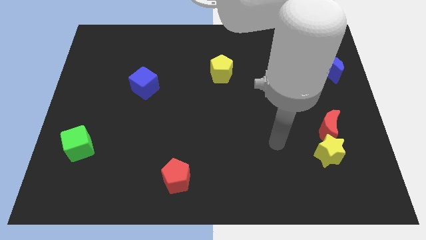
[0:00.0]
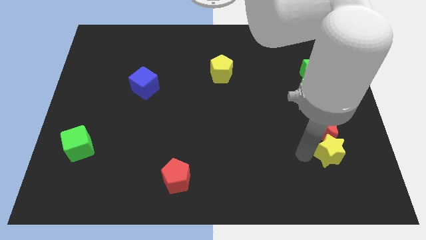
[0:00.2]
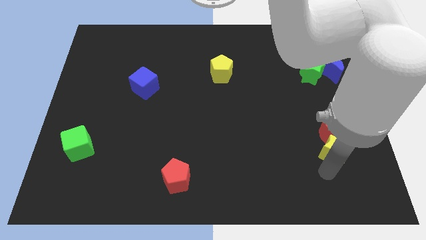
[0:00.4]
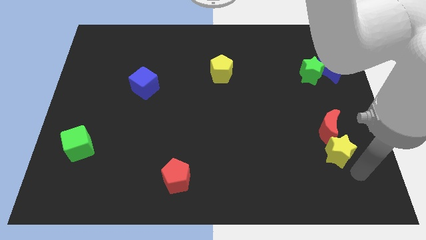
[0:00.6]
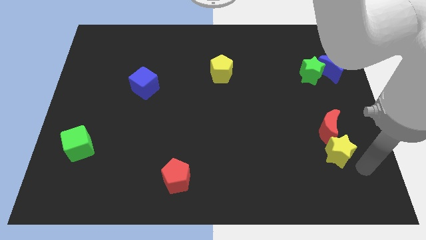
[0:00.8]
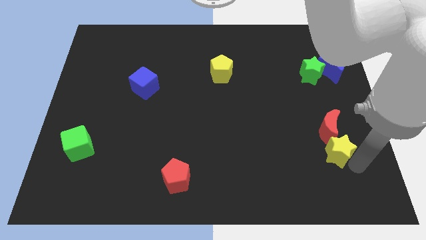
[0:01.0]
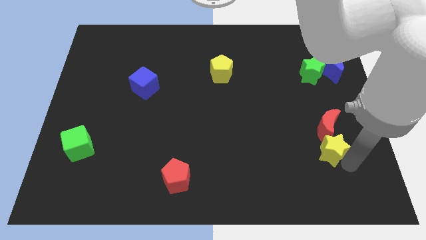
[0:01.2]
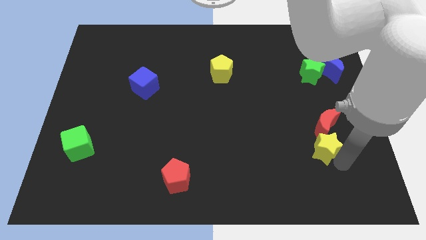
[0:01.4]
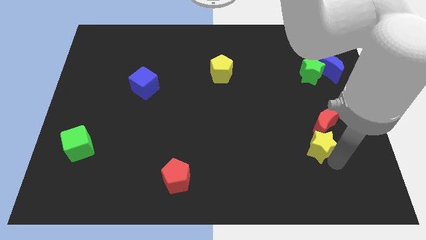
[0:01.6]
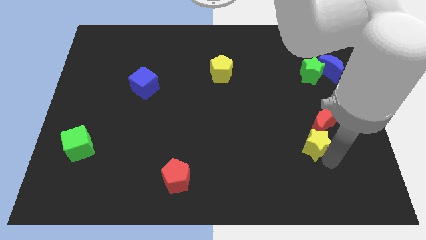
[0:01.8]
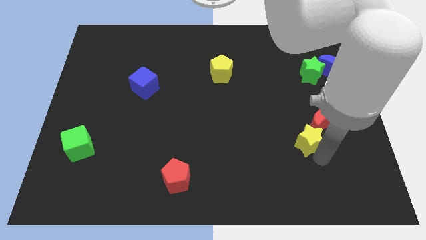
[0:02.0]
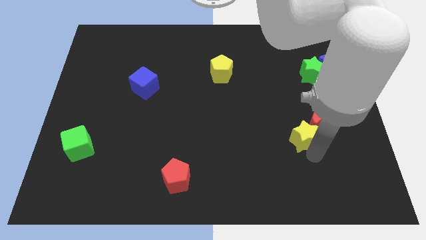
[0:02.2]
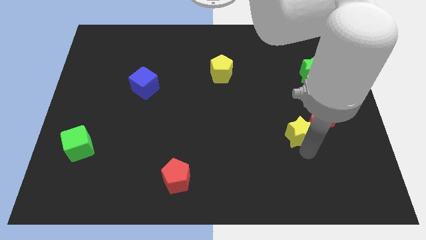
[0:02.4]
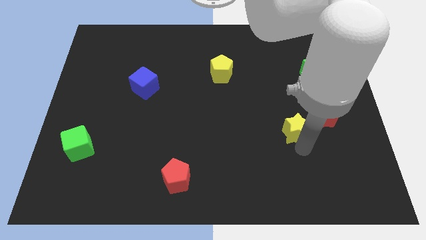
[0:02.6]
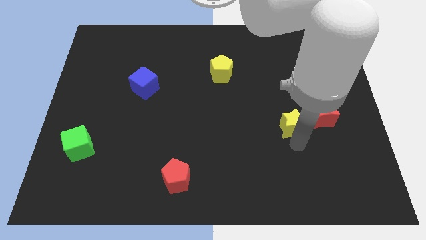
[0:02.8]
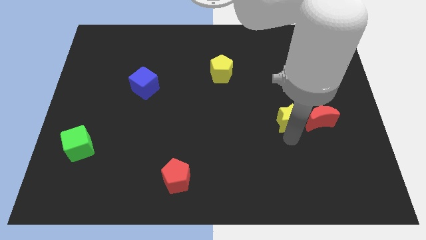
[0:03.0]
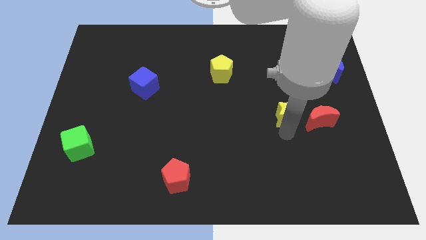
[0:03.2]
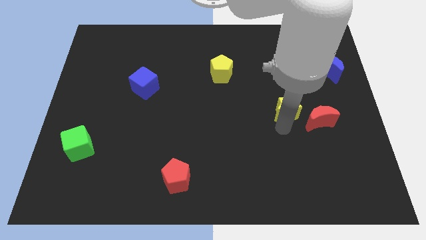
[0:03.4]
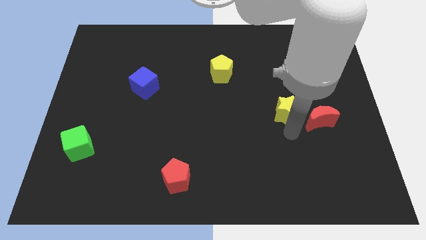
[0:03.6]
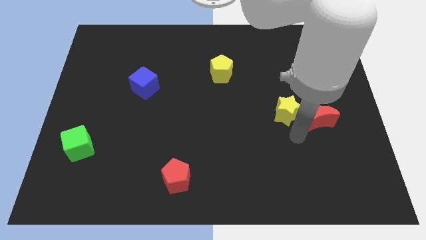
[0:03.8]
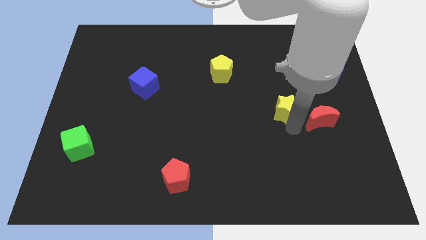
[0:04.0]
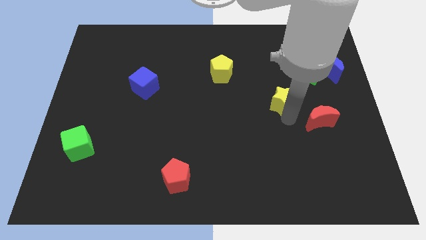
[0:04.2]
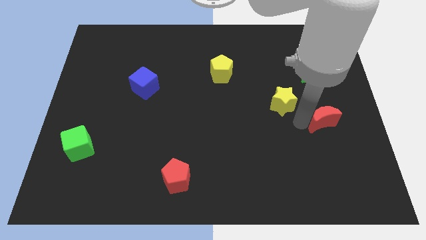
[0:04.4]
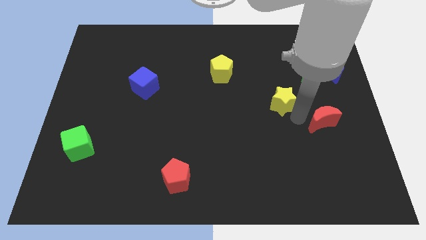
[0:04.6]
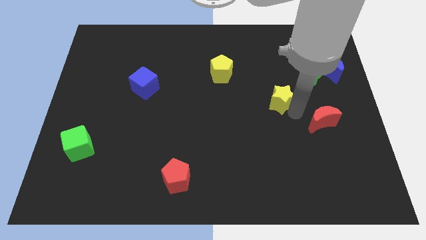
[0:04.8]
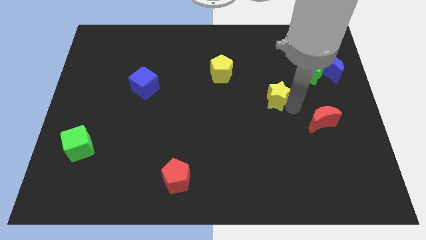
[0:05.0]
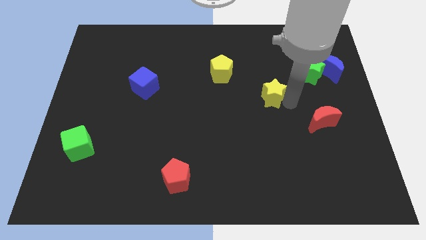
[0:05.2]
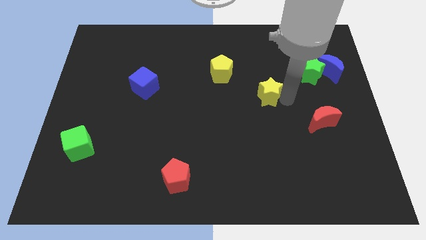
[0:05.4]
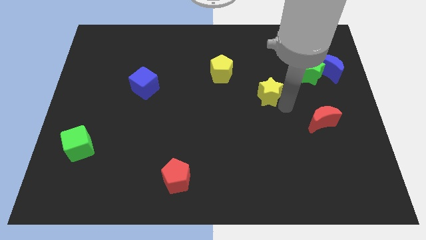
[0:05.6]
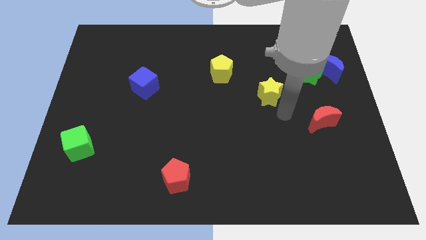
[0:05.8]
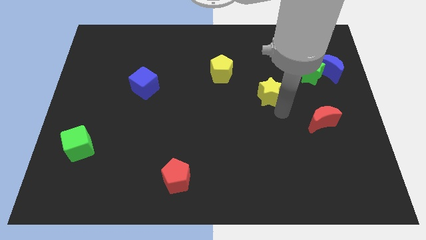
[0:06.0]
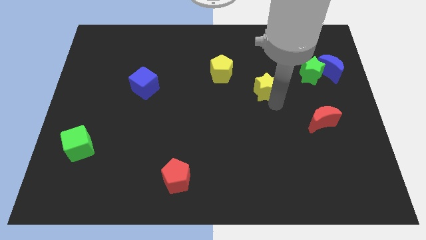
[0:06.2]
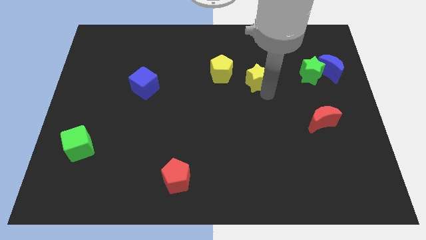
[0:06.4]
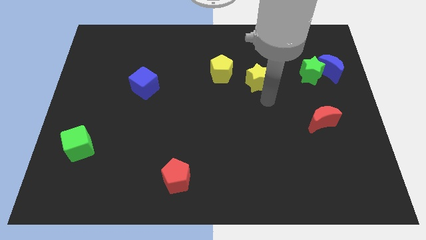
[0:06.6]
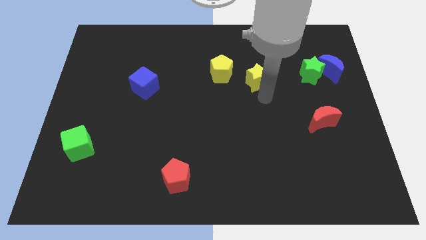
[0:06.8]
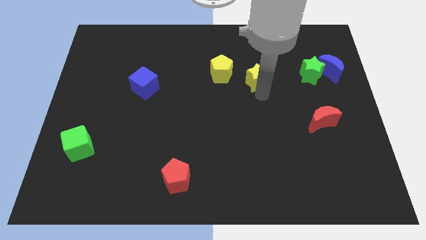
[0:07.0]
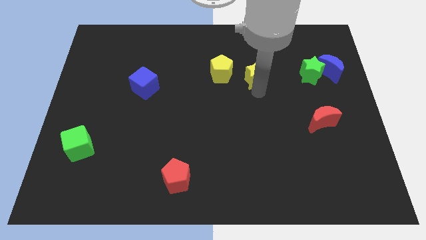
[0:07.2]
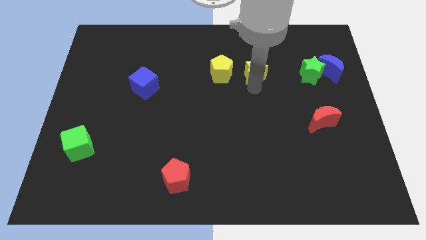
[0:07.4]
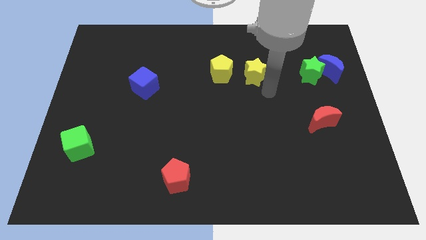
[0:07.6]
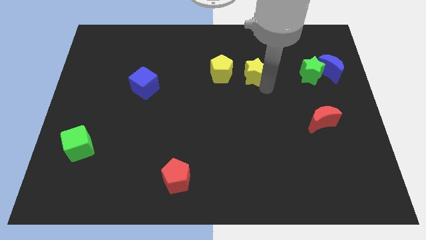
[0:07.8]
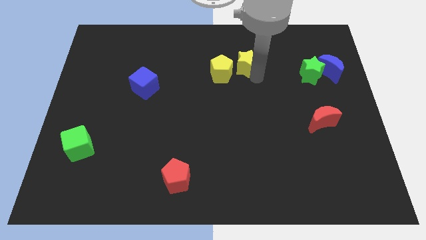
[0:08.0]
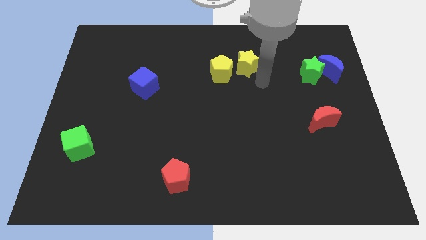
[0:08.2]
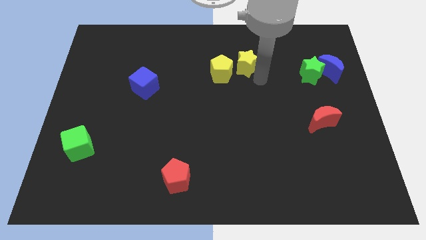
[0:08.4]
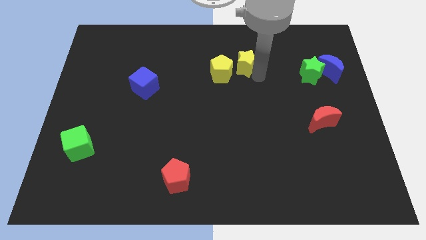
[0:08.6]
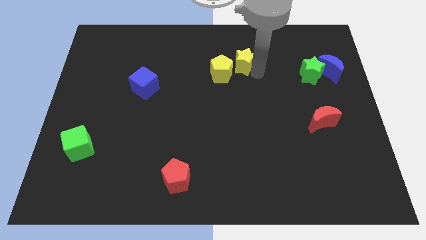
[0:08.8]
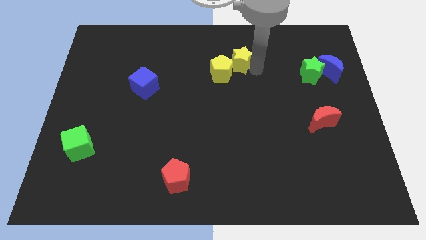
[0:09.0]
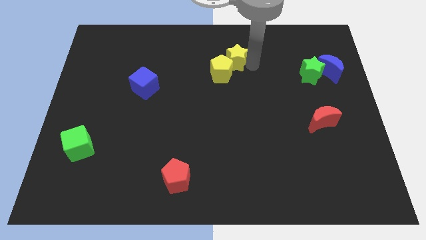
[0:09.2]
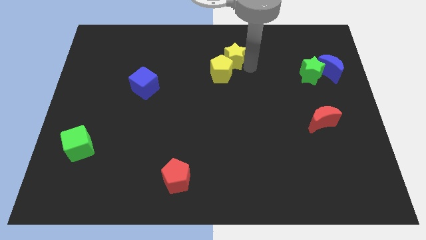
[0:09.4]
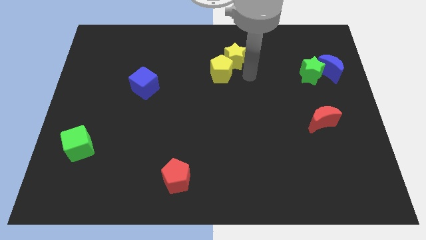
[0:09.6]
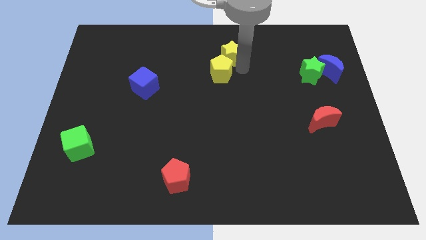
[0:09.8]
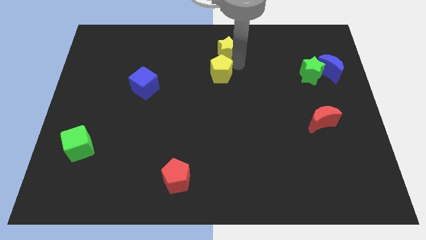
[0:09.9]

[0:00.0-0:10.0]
slide the yellow star to the top side

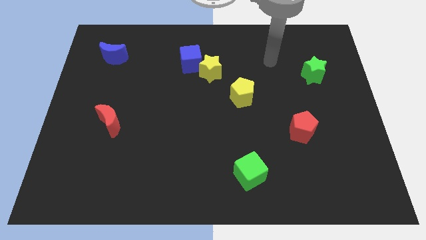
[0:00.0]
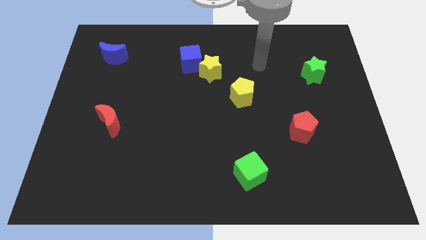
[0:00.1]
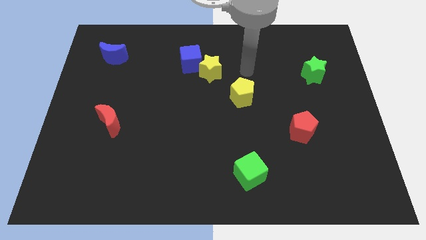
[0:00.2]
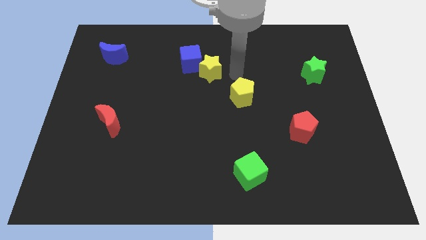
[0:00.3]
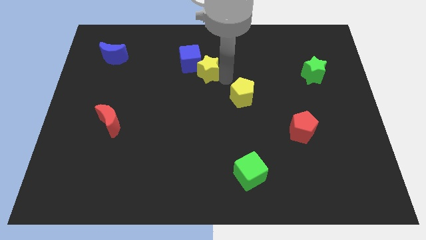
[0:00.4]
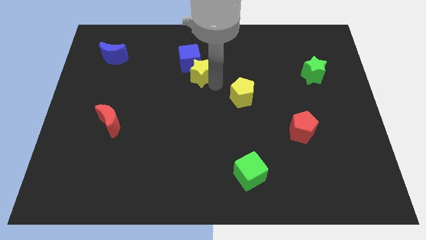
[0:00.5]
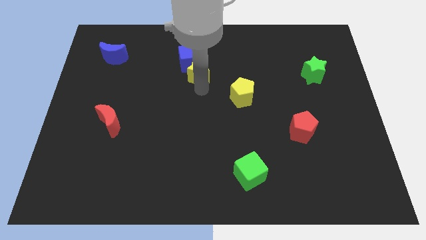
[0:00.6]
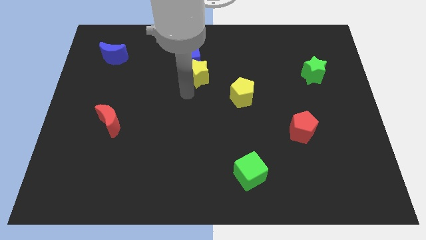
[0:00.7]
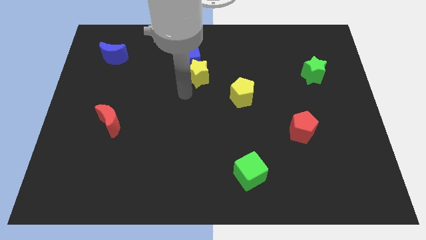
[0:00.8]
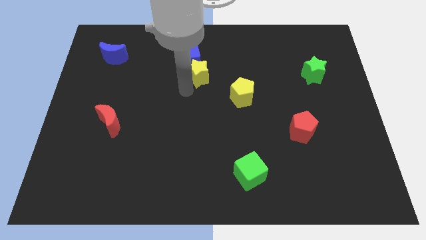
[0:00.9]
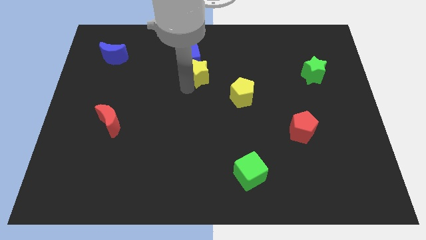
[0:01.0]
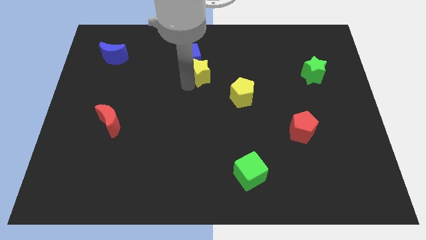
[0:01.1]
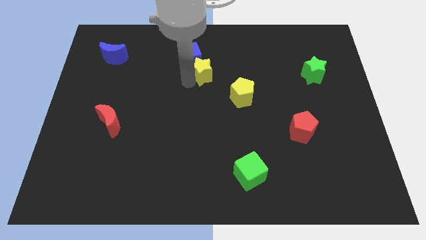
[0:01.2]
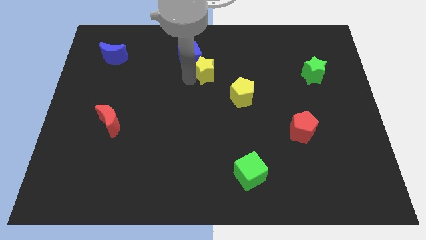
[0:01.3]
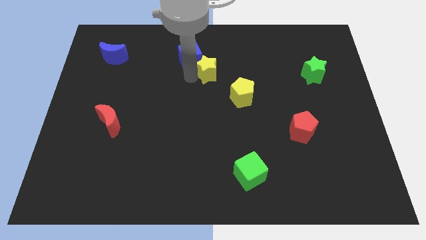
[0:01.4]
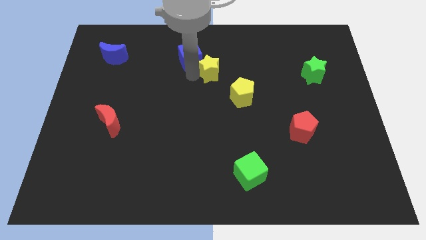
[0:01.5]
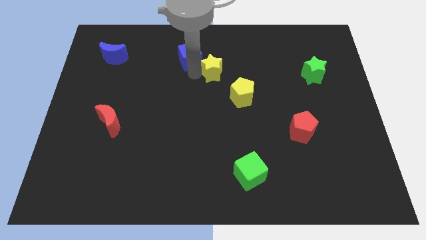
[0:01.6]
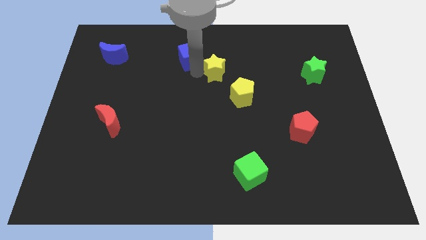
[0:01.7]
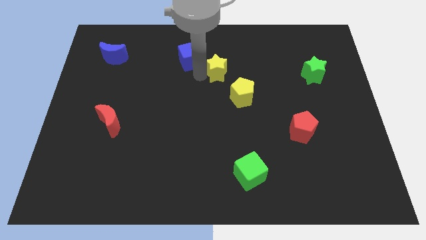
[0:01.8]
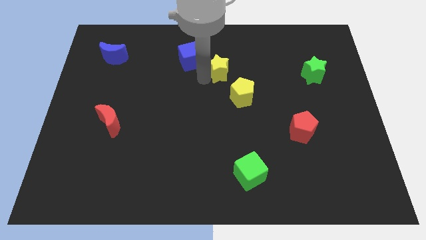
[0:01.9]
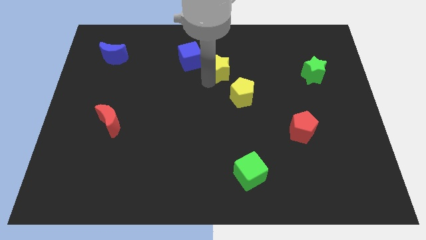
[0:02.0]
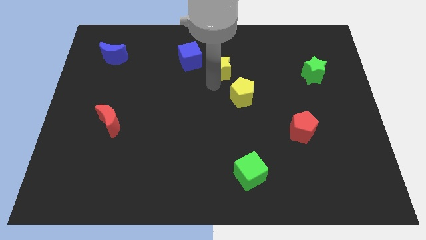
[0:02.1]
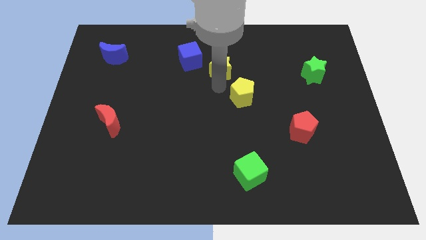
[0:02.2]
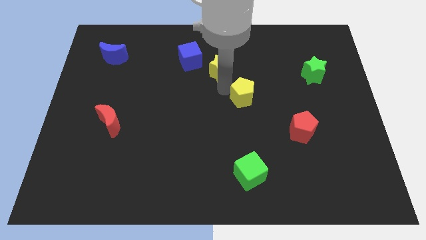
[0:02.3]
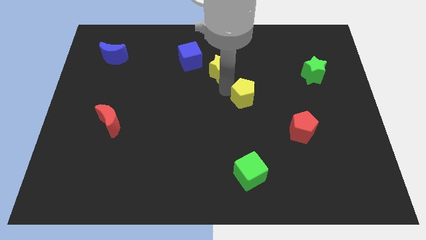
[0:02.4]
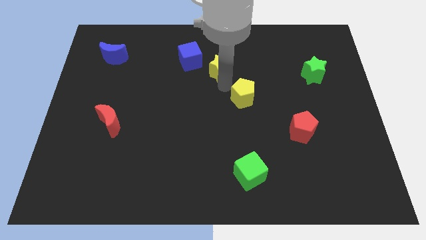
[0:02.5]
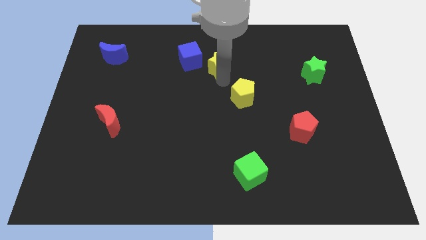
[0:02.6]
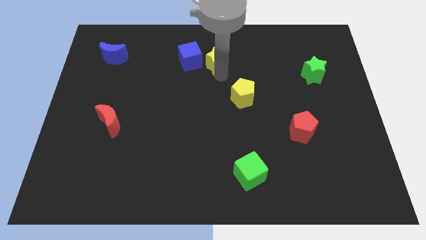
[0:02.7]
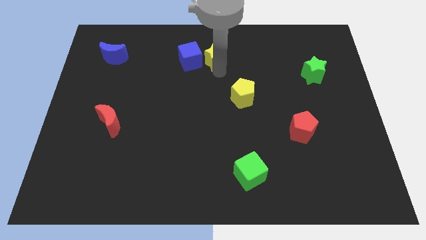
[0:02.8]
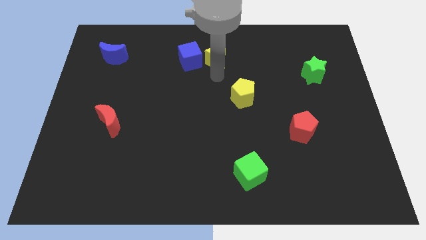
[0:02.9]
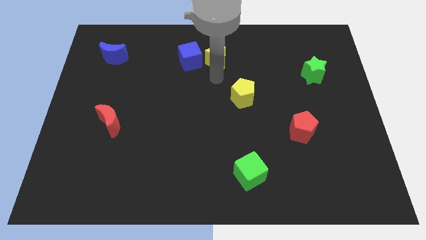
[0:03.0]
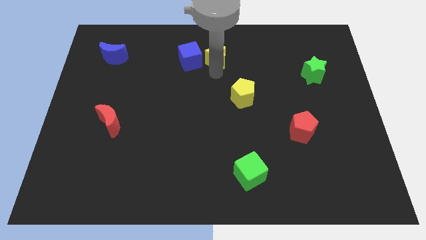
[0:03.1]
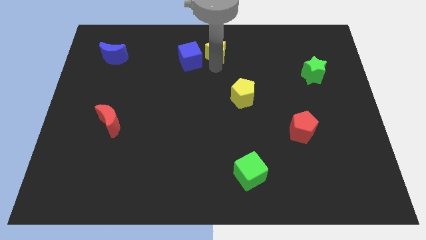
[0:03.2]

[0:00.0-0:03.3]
put the yellow star to the top side
